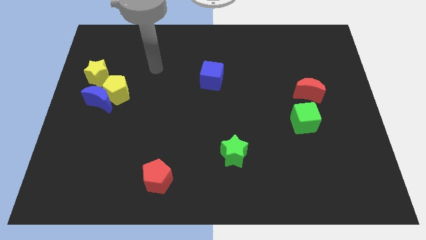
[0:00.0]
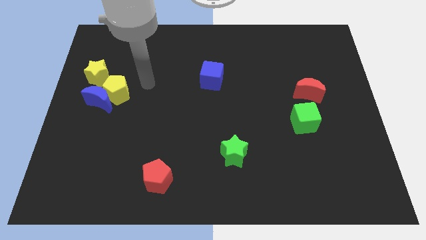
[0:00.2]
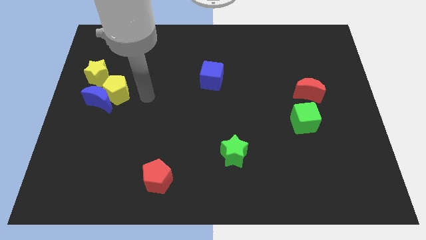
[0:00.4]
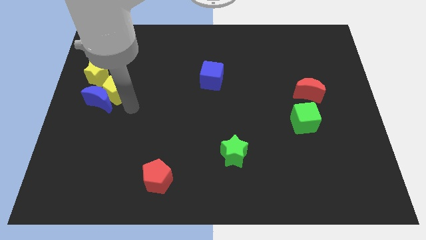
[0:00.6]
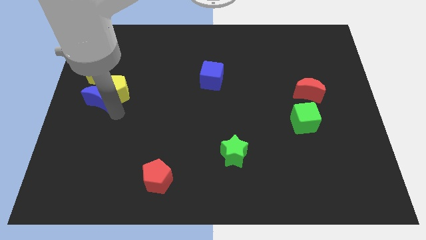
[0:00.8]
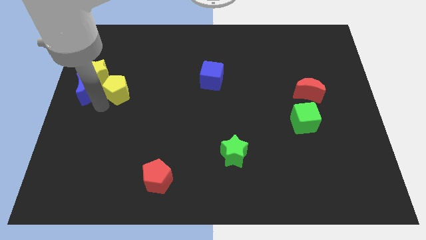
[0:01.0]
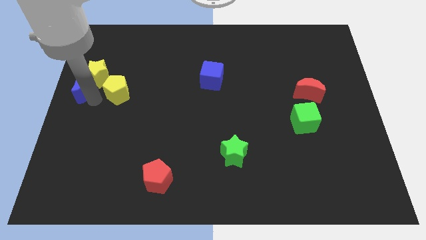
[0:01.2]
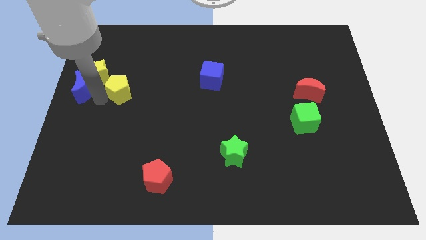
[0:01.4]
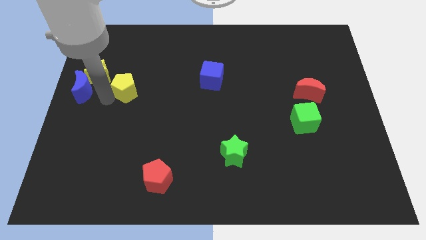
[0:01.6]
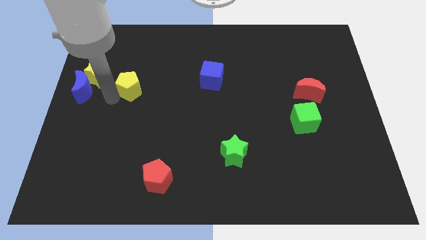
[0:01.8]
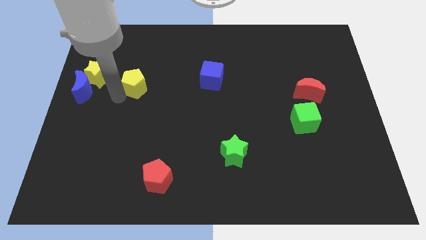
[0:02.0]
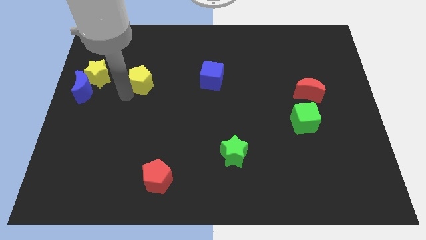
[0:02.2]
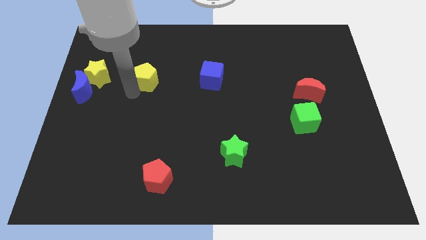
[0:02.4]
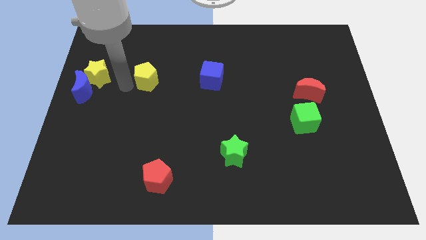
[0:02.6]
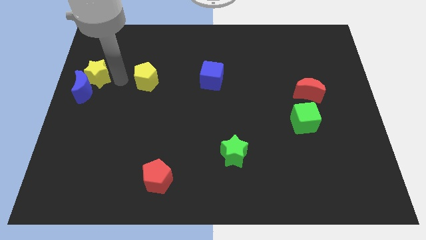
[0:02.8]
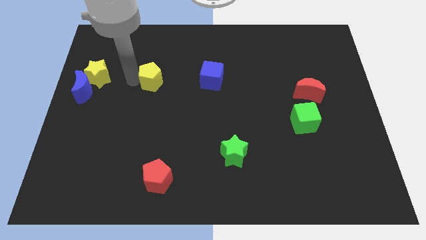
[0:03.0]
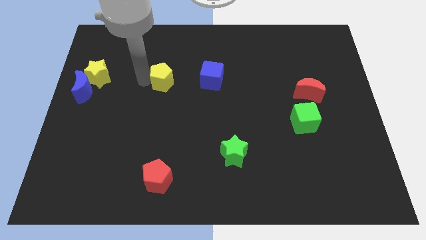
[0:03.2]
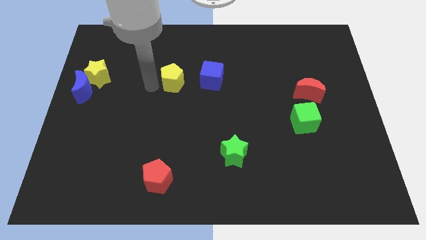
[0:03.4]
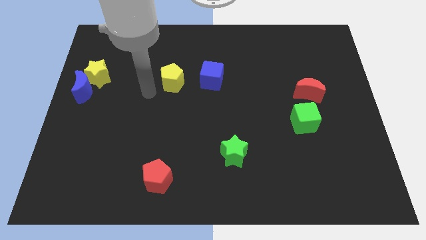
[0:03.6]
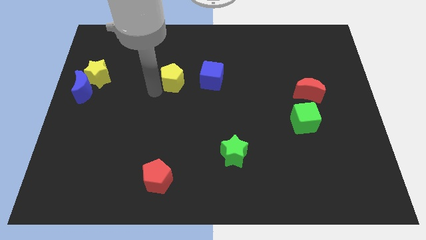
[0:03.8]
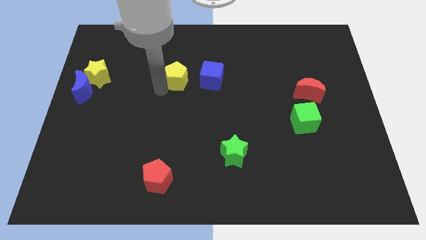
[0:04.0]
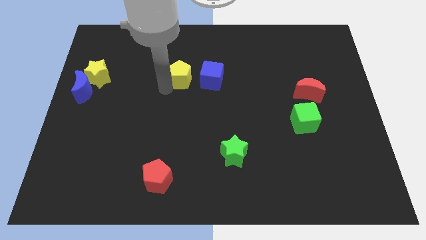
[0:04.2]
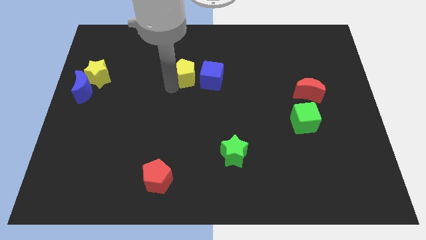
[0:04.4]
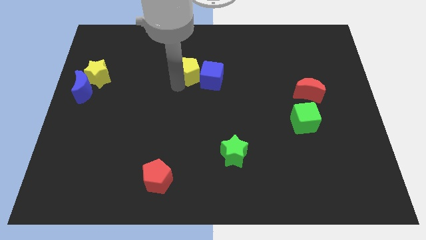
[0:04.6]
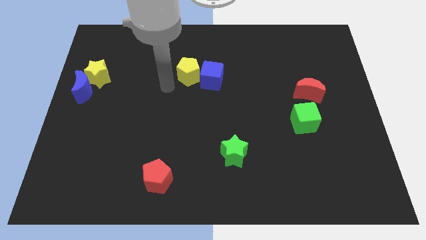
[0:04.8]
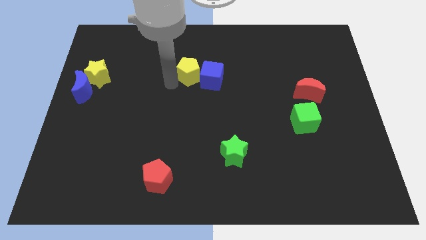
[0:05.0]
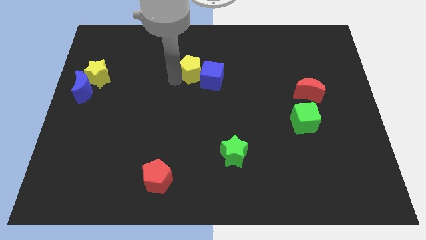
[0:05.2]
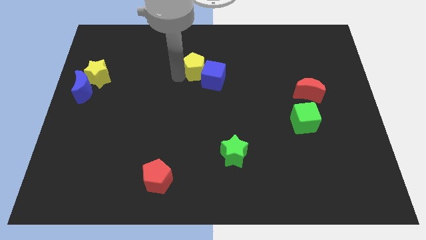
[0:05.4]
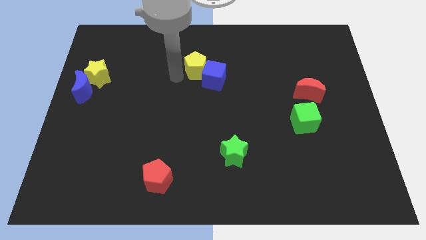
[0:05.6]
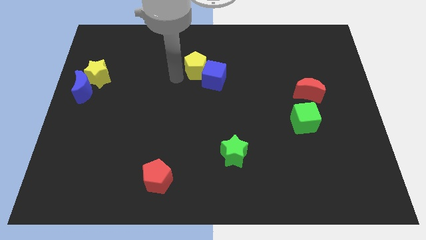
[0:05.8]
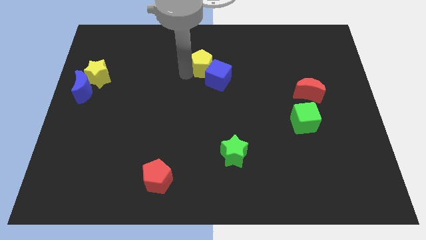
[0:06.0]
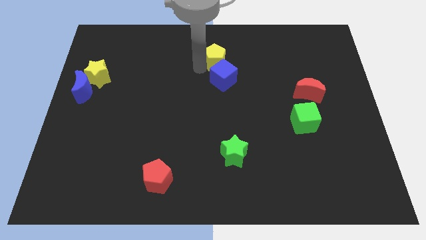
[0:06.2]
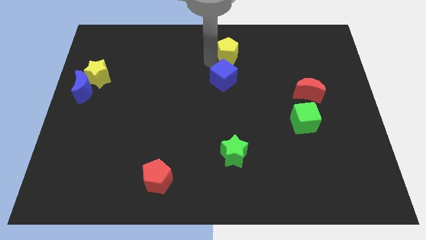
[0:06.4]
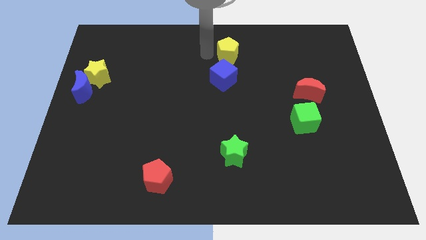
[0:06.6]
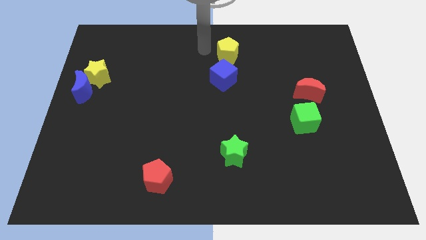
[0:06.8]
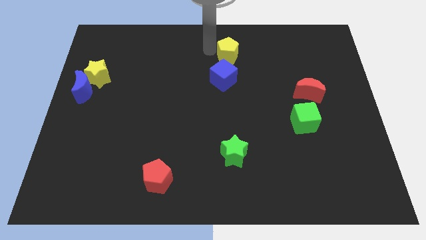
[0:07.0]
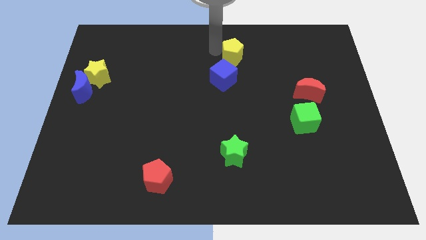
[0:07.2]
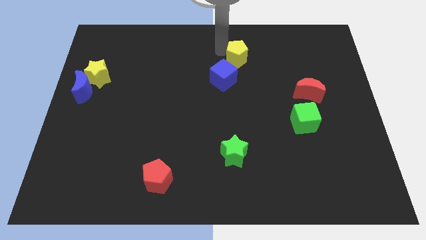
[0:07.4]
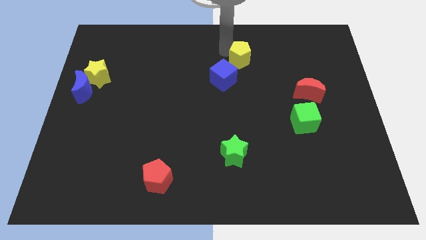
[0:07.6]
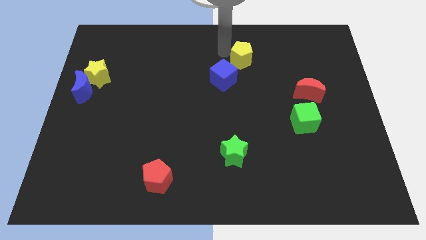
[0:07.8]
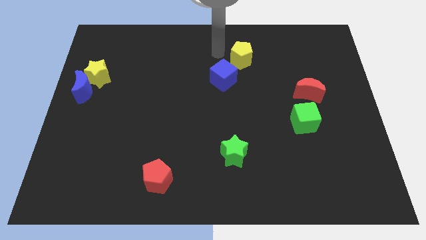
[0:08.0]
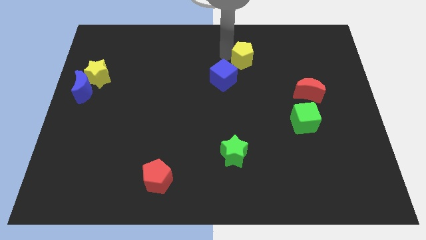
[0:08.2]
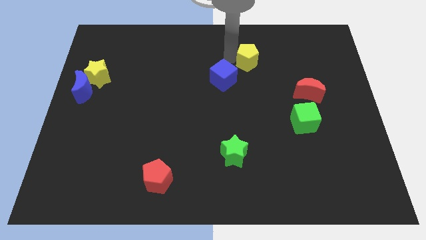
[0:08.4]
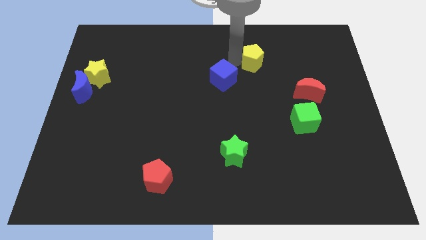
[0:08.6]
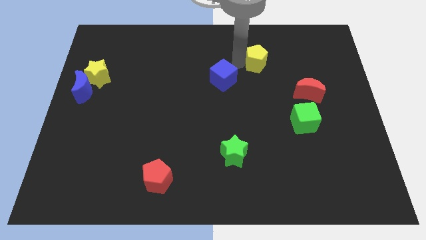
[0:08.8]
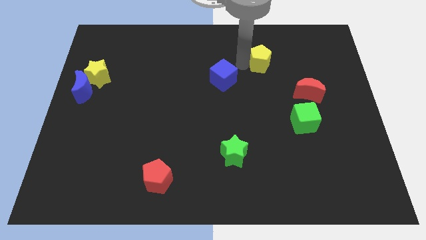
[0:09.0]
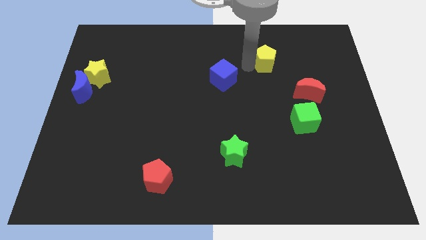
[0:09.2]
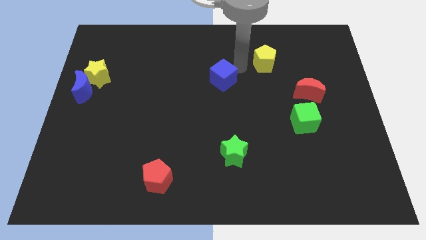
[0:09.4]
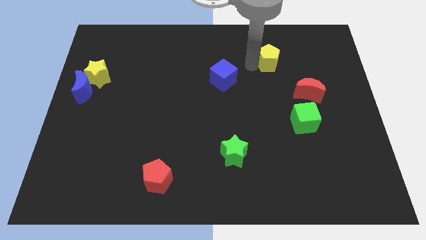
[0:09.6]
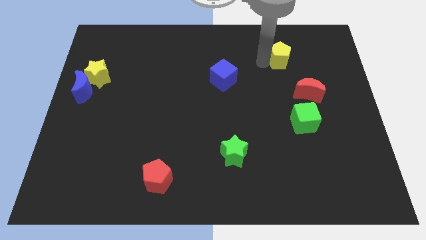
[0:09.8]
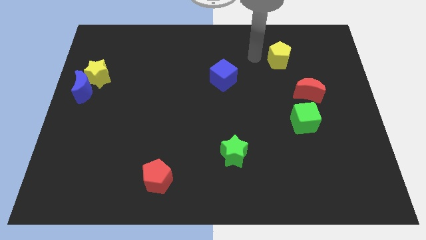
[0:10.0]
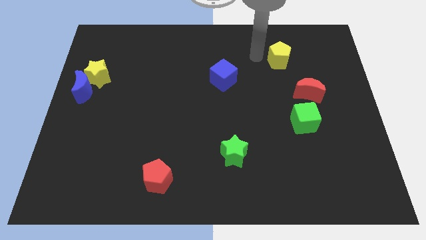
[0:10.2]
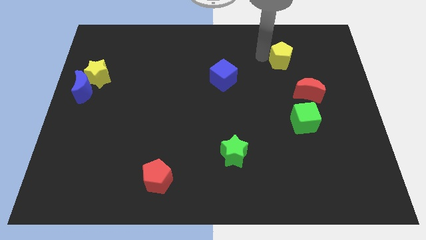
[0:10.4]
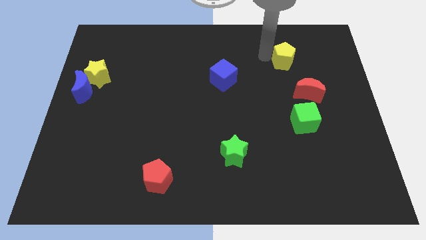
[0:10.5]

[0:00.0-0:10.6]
put the yellow pentagon to the top of the red moon

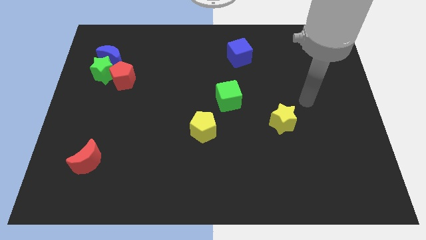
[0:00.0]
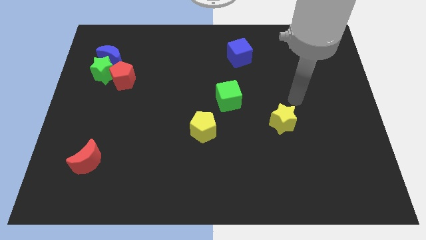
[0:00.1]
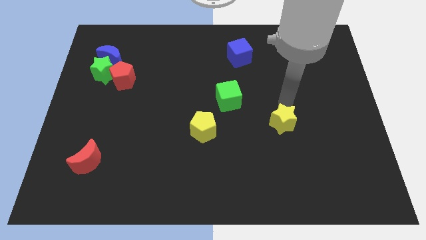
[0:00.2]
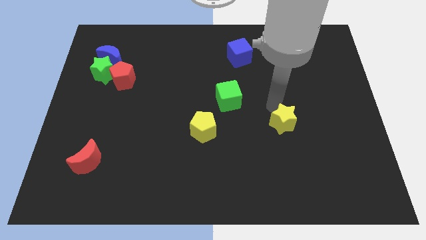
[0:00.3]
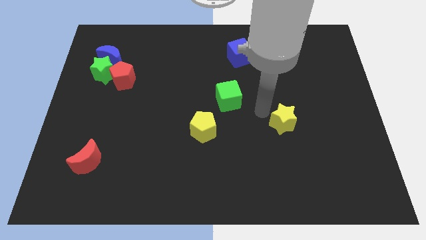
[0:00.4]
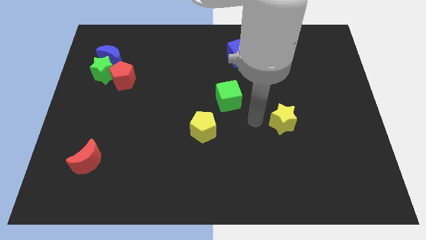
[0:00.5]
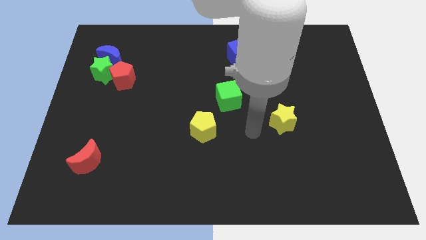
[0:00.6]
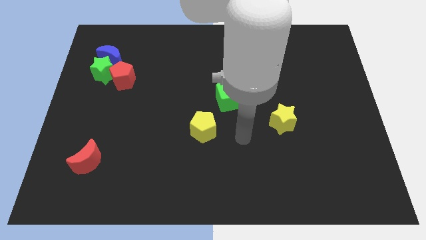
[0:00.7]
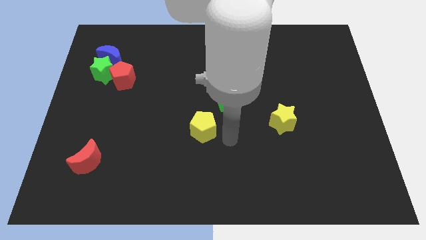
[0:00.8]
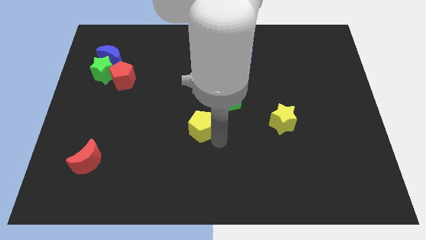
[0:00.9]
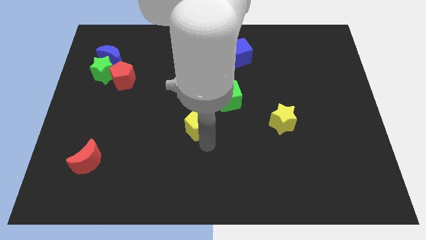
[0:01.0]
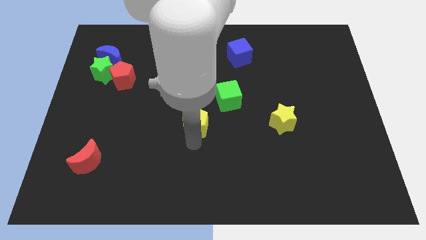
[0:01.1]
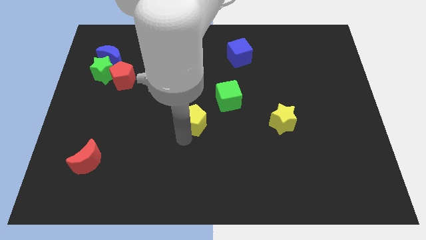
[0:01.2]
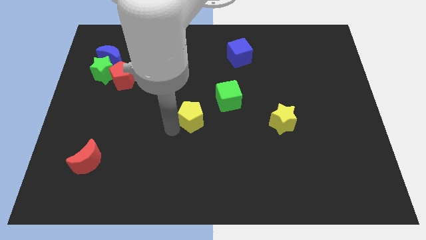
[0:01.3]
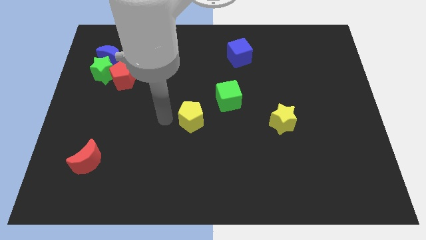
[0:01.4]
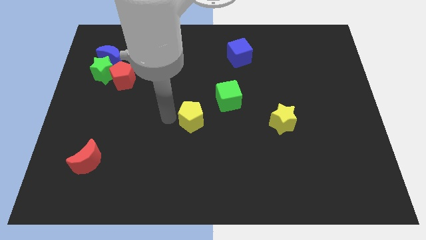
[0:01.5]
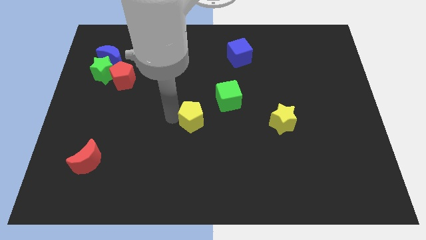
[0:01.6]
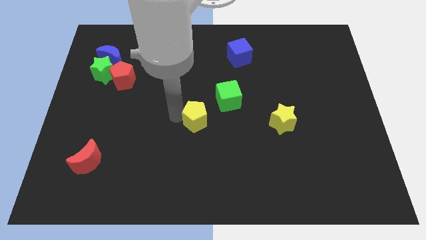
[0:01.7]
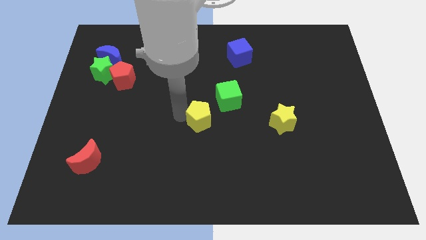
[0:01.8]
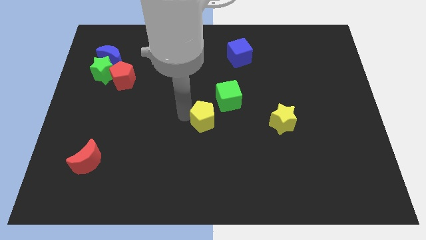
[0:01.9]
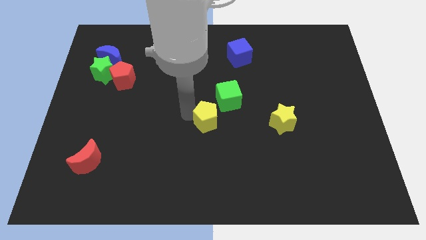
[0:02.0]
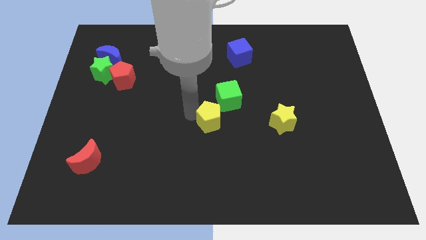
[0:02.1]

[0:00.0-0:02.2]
move the yellow pentagon left of the yellow star
